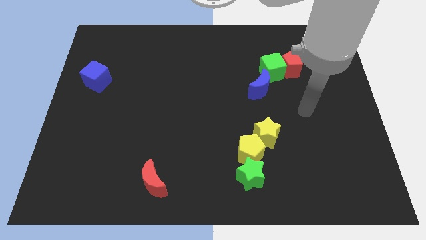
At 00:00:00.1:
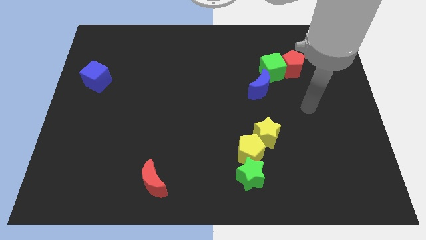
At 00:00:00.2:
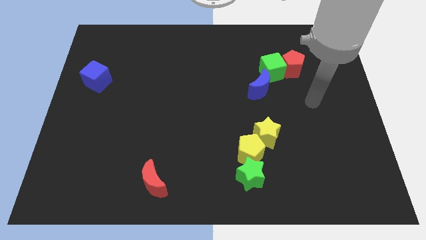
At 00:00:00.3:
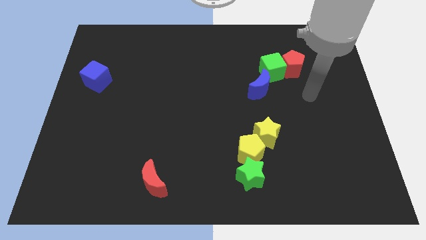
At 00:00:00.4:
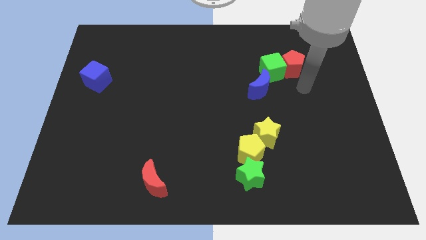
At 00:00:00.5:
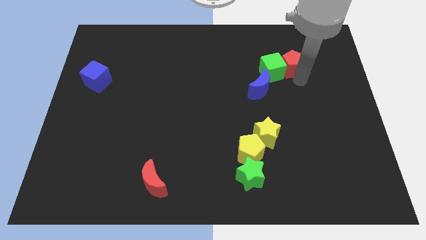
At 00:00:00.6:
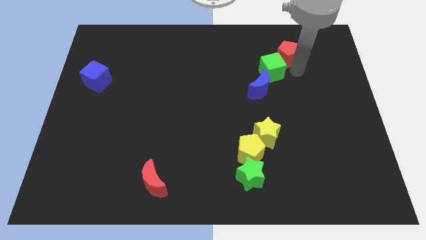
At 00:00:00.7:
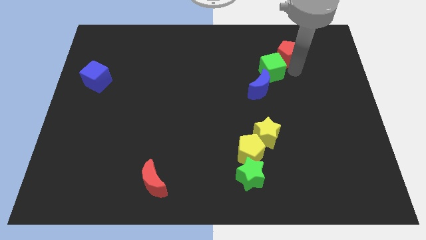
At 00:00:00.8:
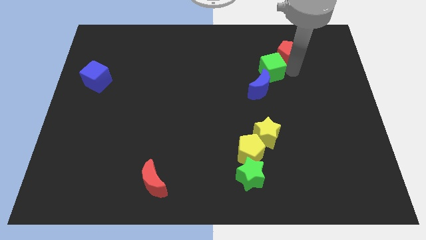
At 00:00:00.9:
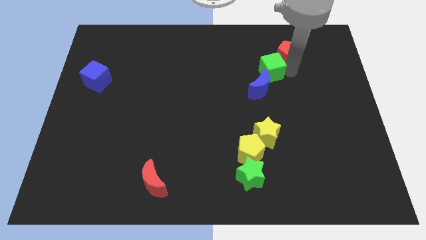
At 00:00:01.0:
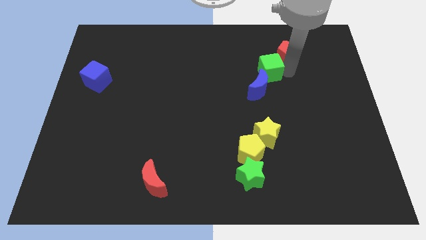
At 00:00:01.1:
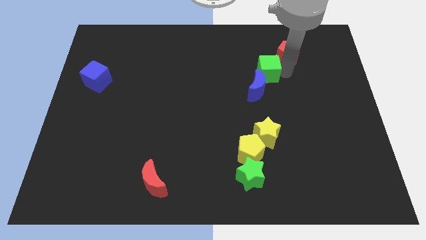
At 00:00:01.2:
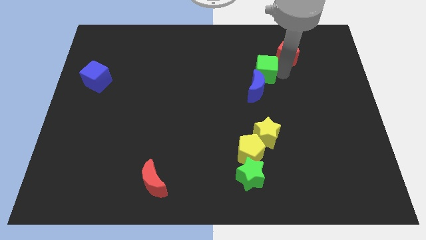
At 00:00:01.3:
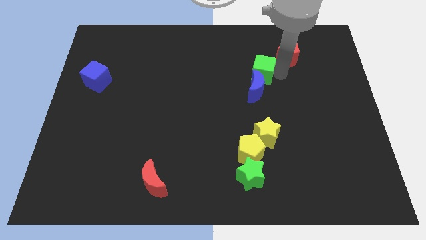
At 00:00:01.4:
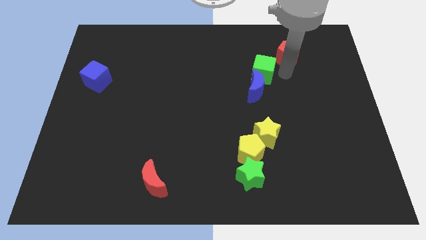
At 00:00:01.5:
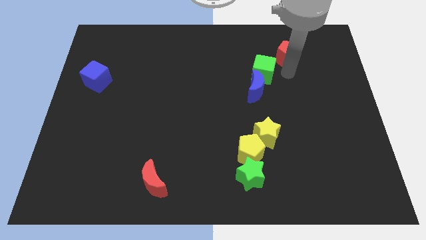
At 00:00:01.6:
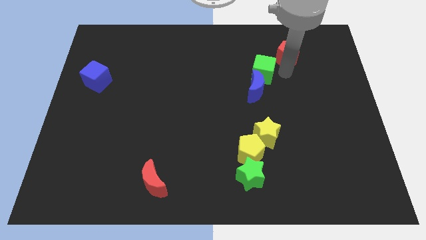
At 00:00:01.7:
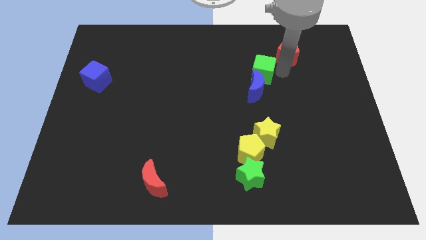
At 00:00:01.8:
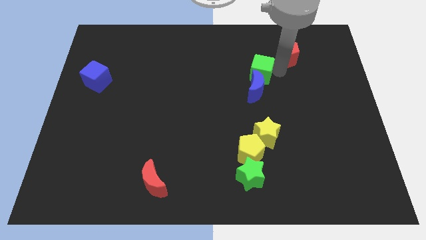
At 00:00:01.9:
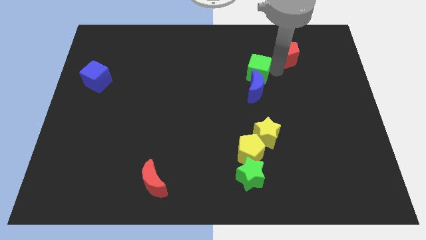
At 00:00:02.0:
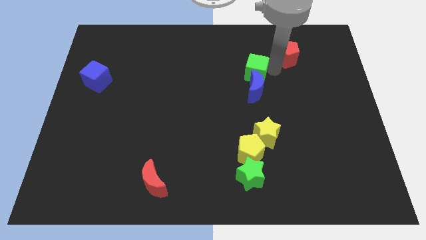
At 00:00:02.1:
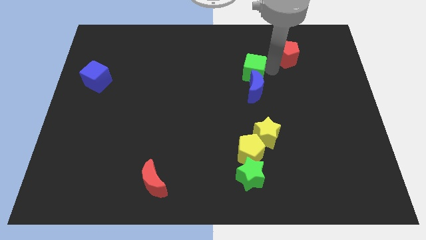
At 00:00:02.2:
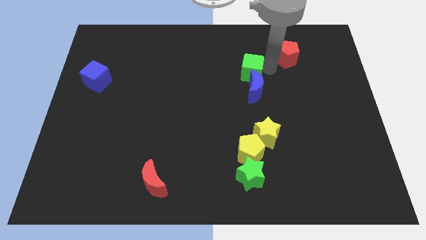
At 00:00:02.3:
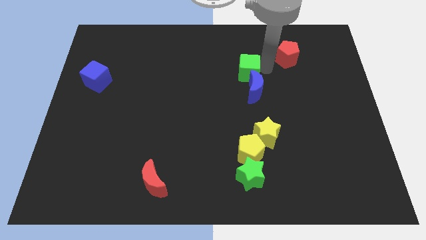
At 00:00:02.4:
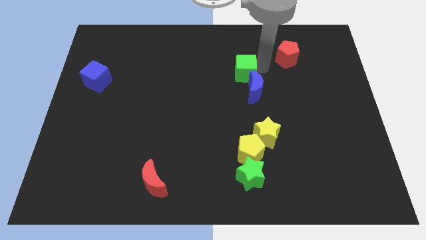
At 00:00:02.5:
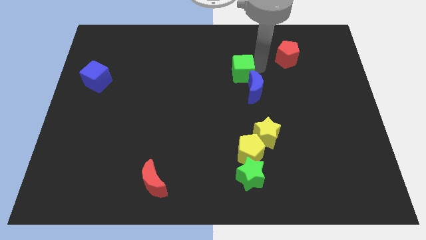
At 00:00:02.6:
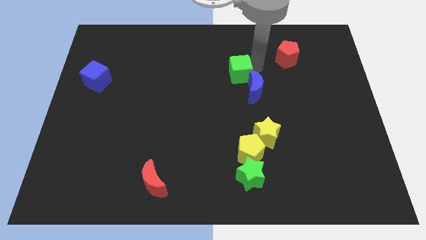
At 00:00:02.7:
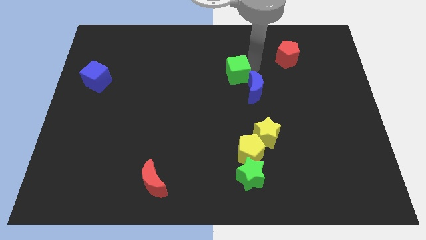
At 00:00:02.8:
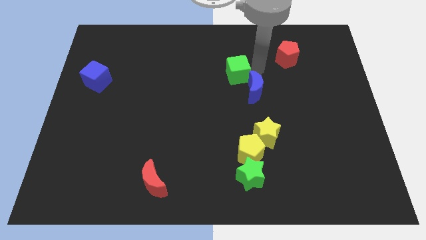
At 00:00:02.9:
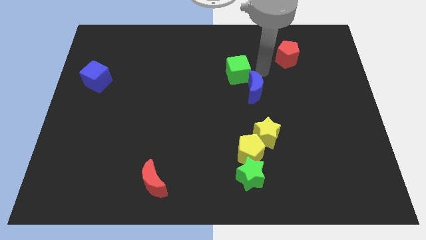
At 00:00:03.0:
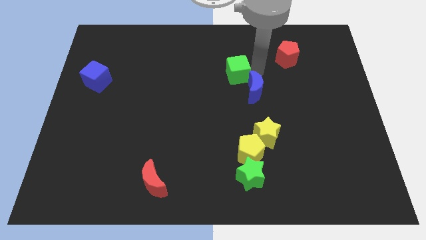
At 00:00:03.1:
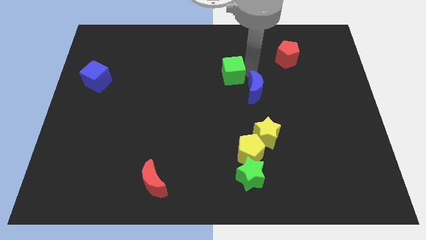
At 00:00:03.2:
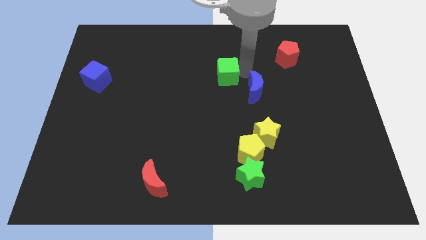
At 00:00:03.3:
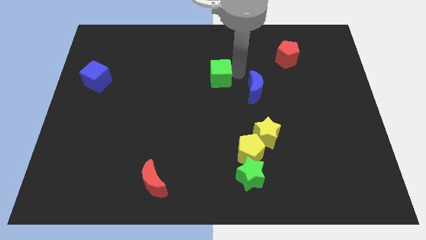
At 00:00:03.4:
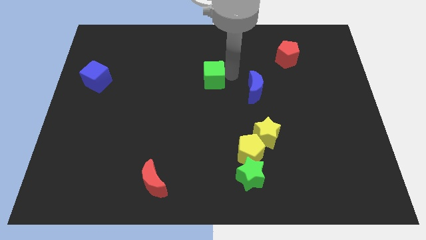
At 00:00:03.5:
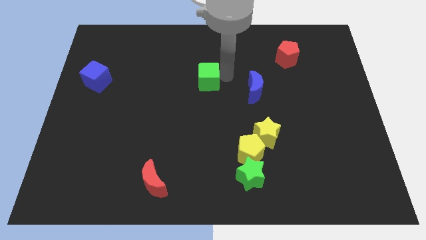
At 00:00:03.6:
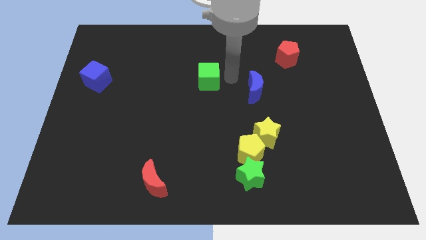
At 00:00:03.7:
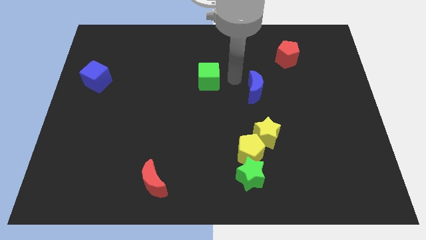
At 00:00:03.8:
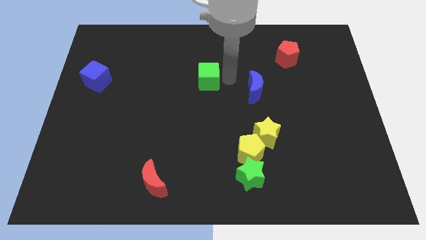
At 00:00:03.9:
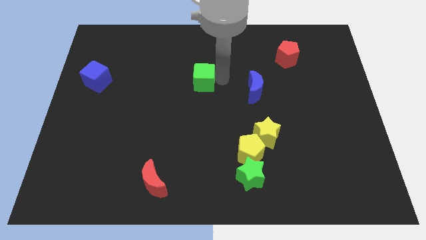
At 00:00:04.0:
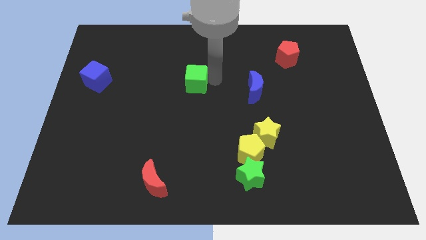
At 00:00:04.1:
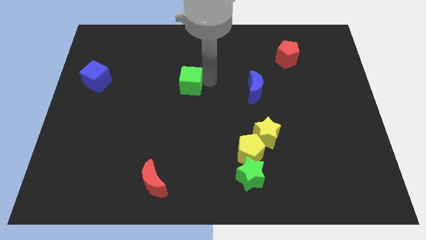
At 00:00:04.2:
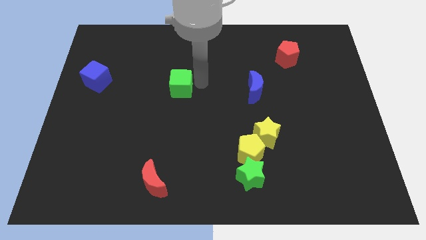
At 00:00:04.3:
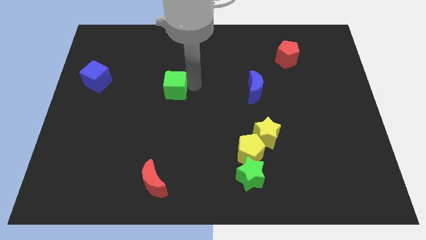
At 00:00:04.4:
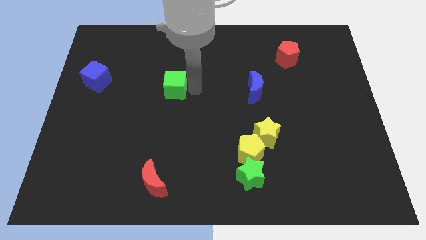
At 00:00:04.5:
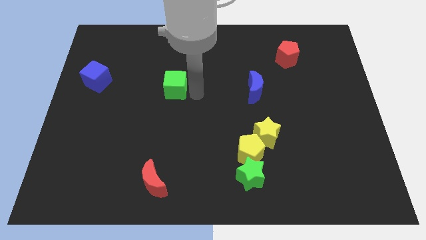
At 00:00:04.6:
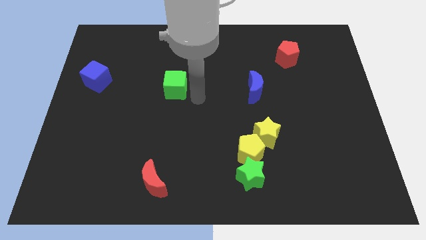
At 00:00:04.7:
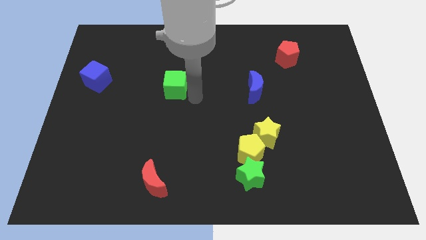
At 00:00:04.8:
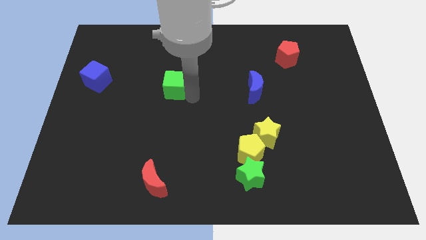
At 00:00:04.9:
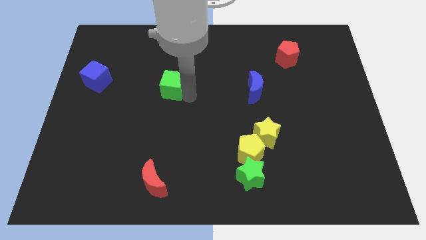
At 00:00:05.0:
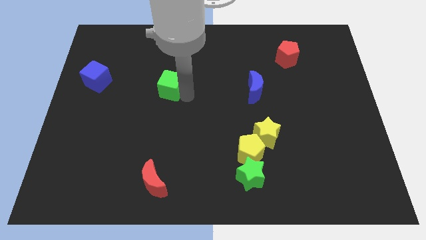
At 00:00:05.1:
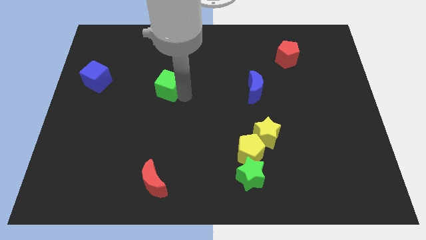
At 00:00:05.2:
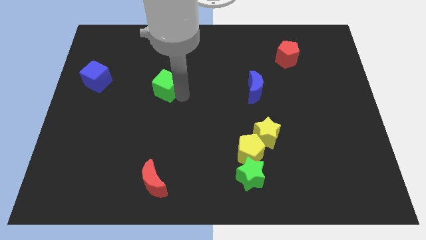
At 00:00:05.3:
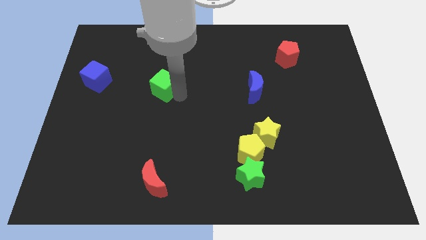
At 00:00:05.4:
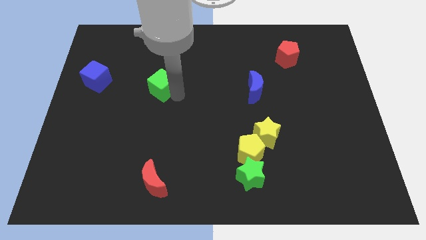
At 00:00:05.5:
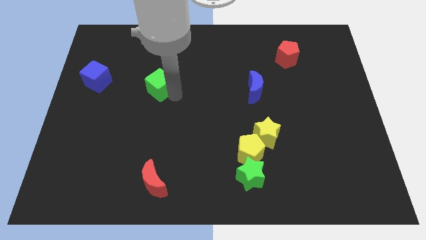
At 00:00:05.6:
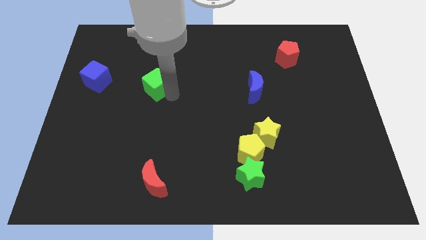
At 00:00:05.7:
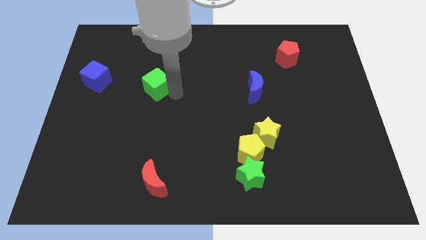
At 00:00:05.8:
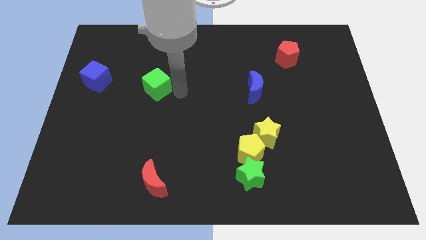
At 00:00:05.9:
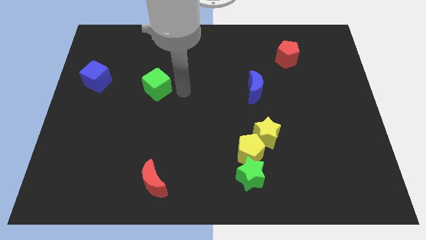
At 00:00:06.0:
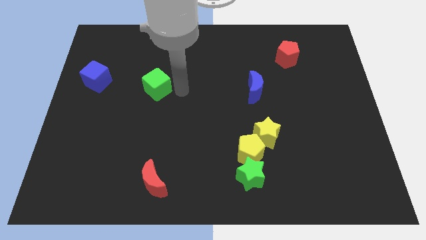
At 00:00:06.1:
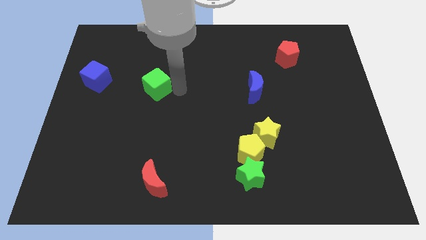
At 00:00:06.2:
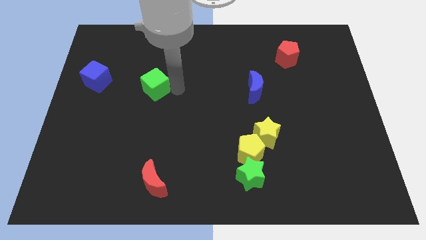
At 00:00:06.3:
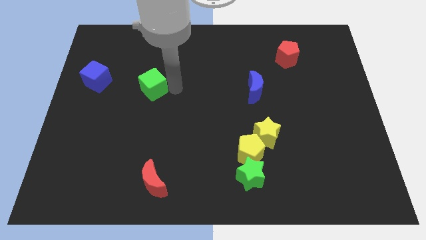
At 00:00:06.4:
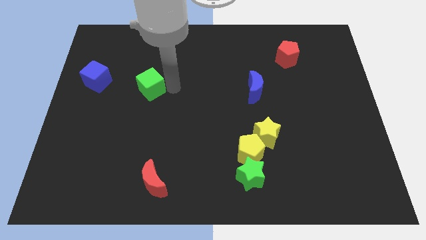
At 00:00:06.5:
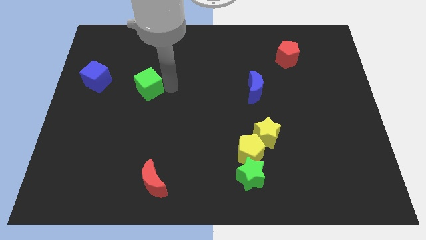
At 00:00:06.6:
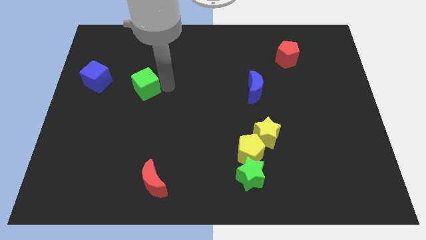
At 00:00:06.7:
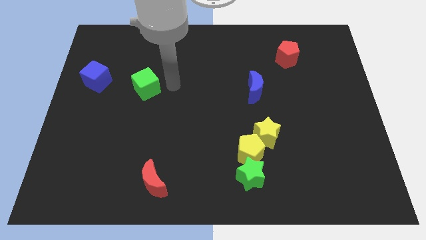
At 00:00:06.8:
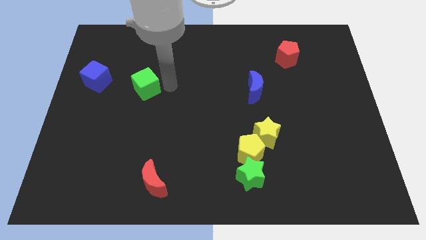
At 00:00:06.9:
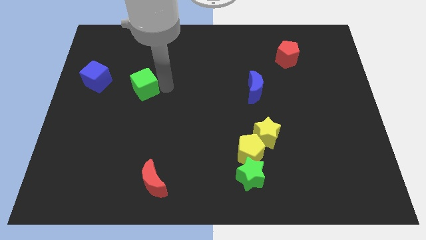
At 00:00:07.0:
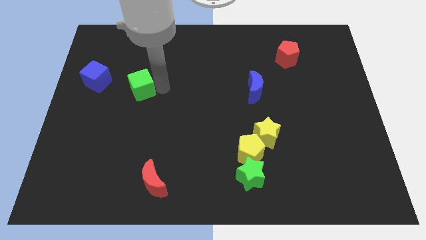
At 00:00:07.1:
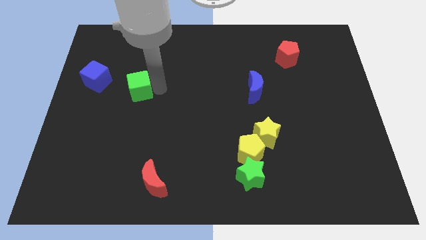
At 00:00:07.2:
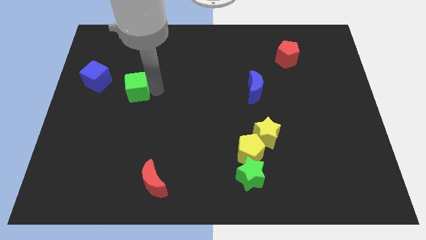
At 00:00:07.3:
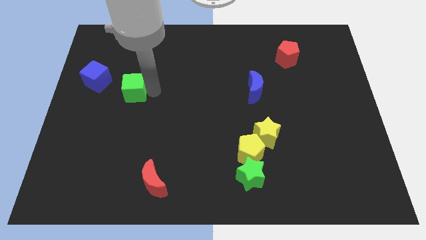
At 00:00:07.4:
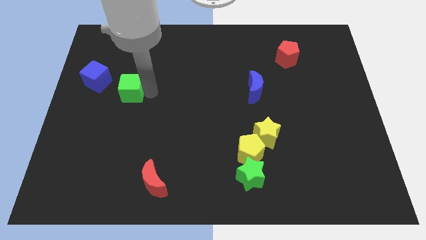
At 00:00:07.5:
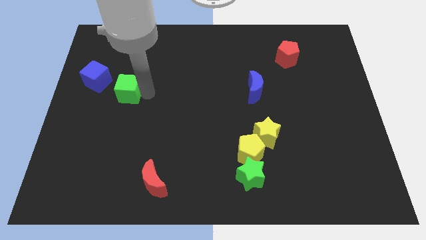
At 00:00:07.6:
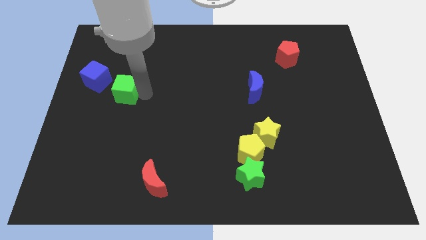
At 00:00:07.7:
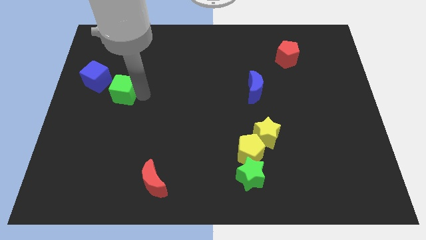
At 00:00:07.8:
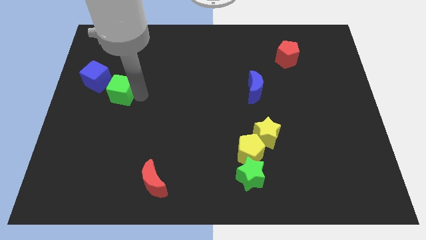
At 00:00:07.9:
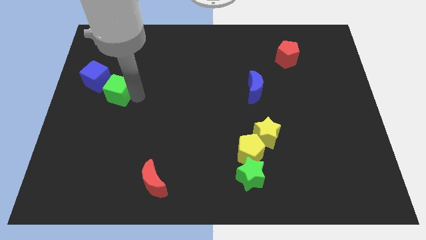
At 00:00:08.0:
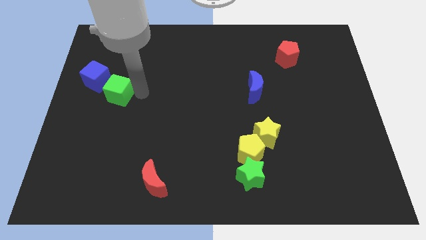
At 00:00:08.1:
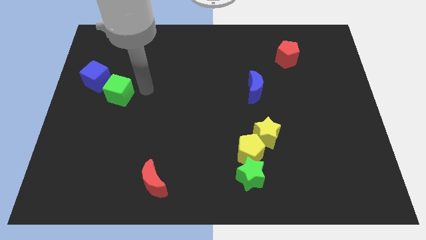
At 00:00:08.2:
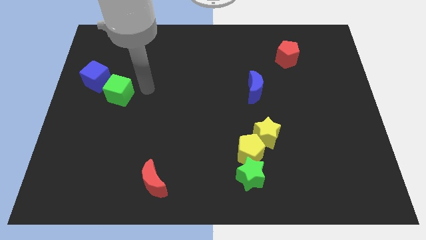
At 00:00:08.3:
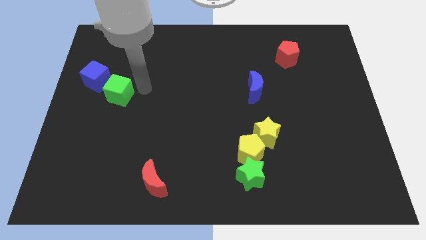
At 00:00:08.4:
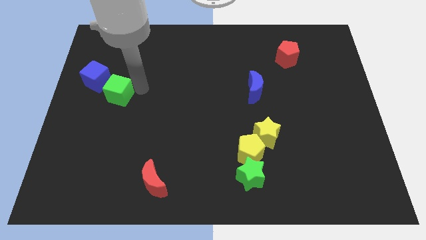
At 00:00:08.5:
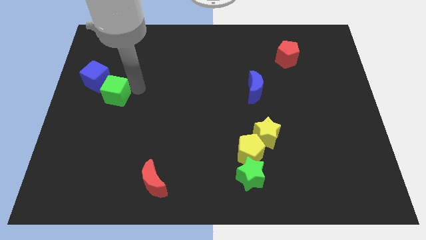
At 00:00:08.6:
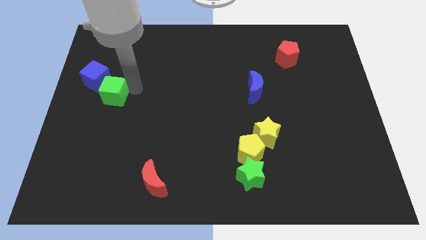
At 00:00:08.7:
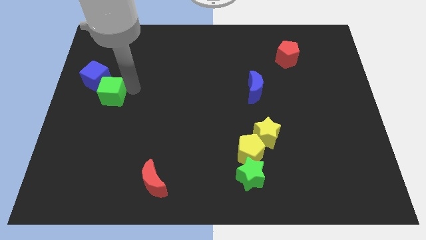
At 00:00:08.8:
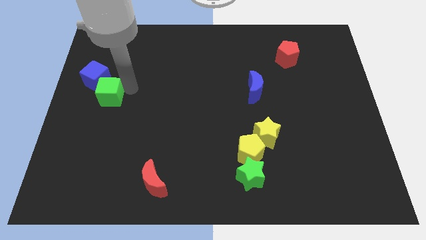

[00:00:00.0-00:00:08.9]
slide the green cube to the left side
